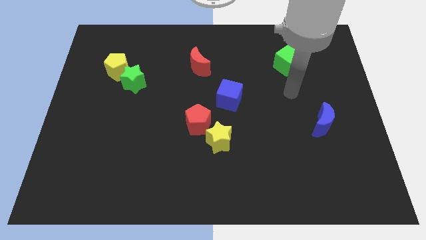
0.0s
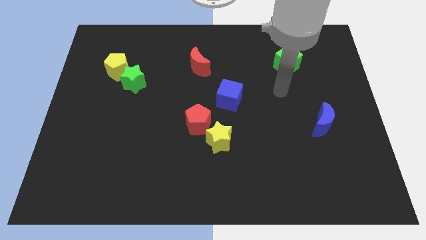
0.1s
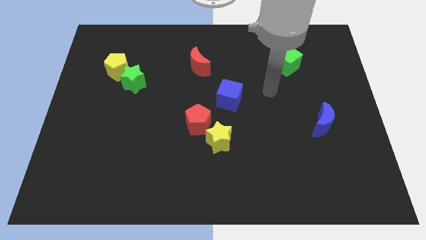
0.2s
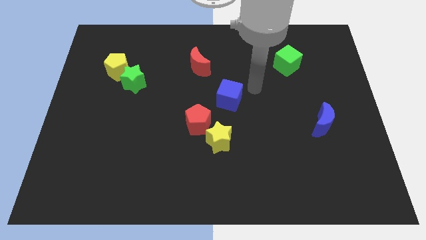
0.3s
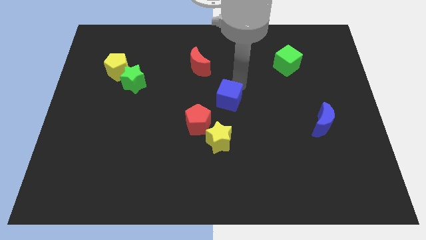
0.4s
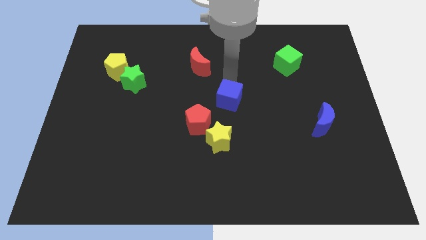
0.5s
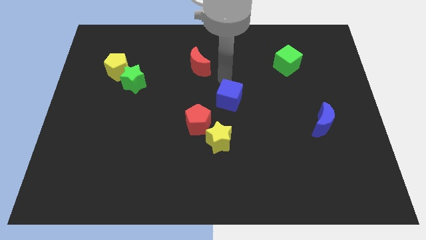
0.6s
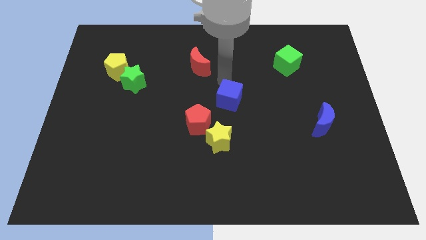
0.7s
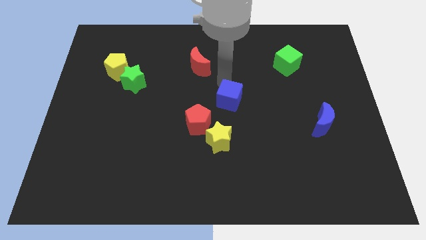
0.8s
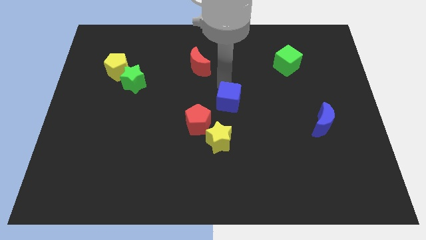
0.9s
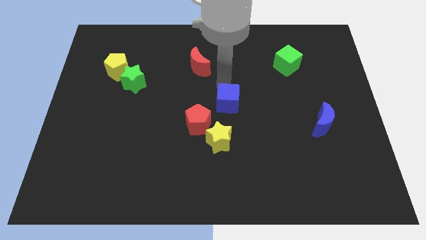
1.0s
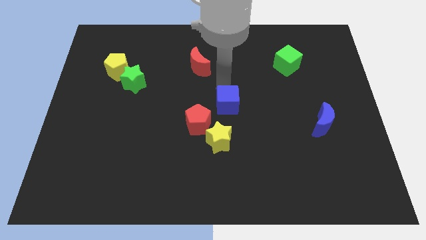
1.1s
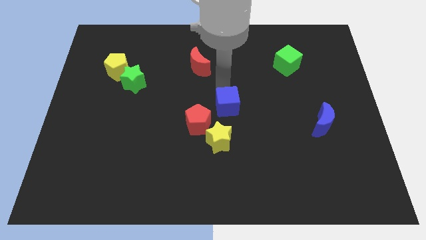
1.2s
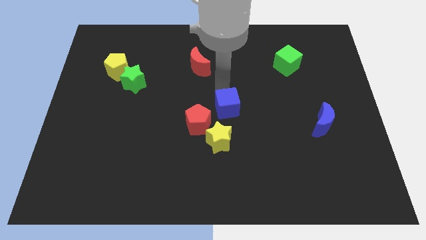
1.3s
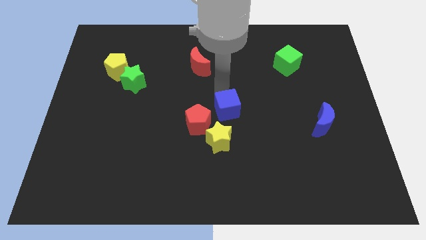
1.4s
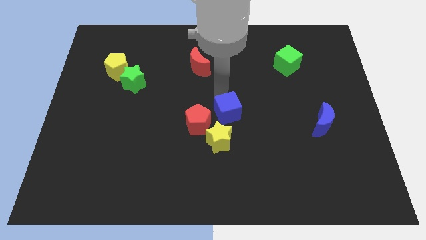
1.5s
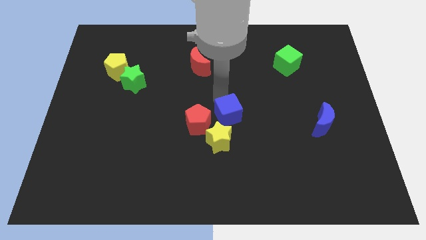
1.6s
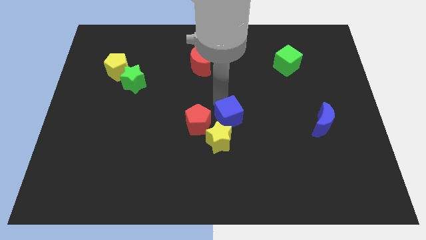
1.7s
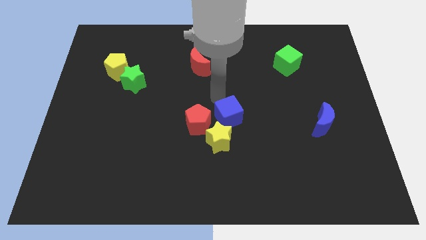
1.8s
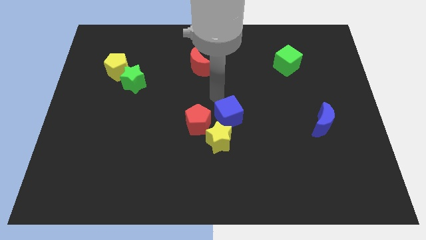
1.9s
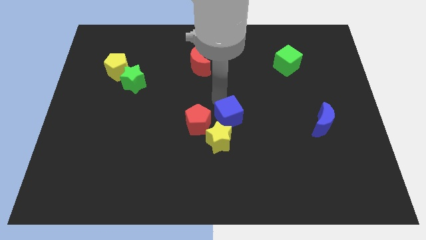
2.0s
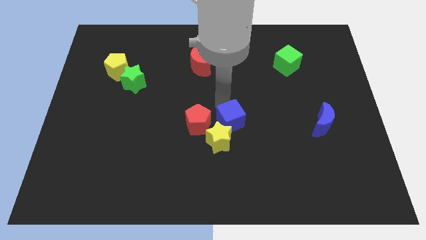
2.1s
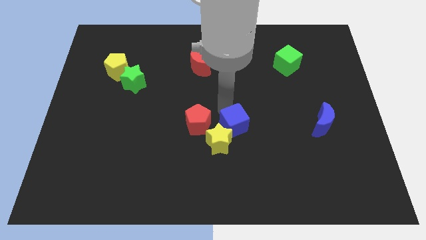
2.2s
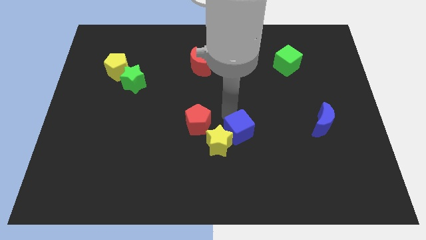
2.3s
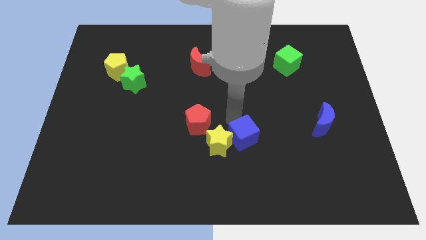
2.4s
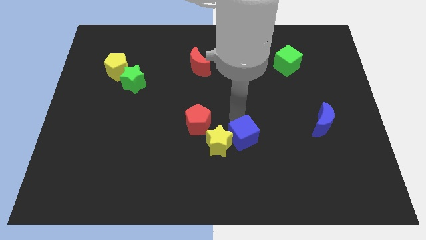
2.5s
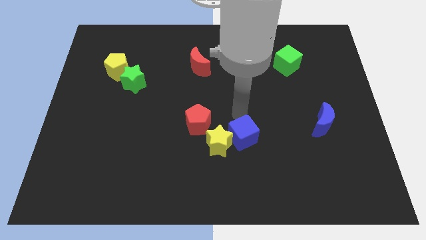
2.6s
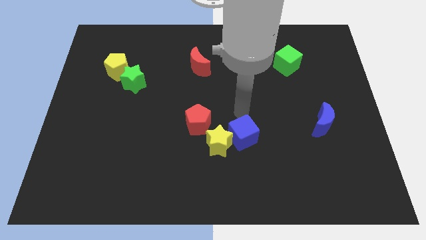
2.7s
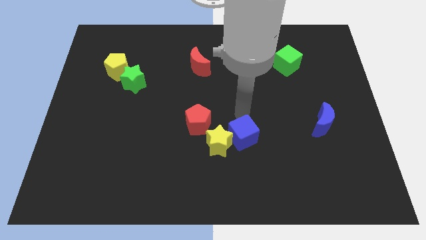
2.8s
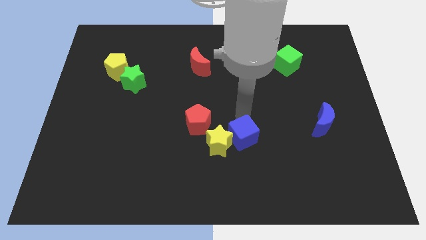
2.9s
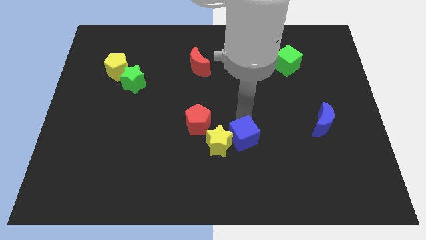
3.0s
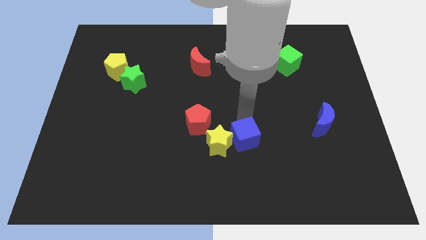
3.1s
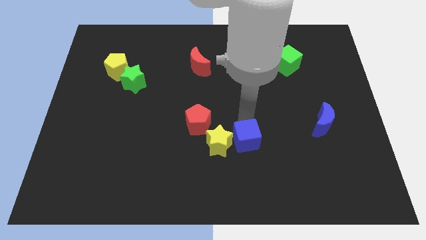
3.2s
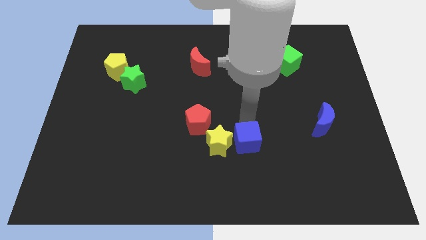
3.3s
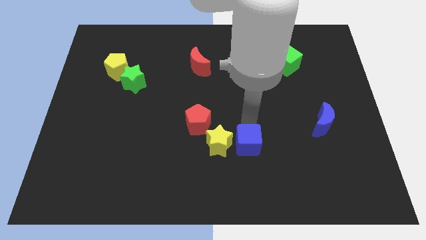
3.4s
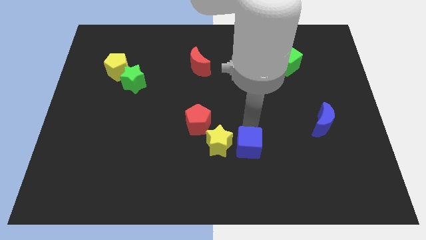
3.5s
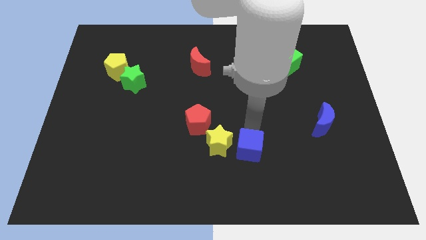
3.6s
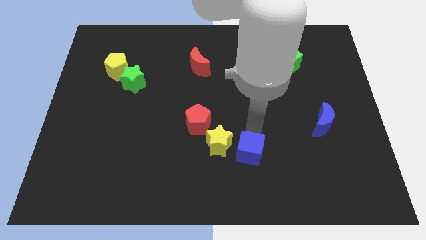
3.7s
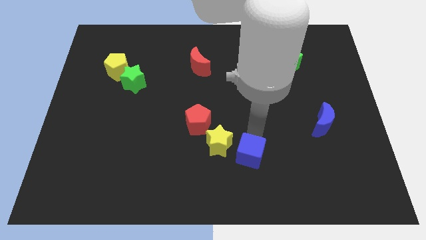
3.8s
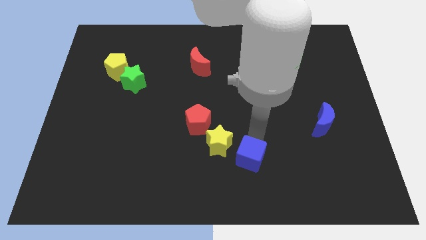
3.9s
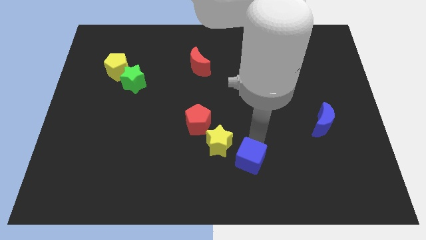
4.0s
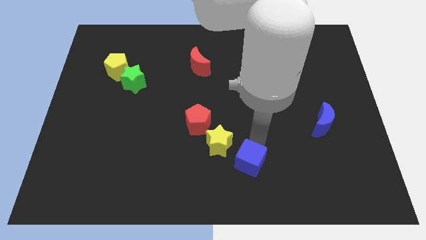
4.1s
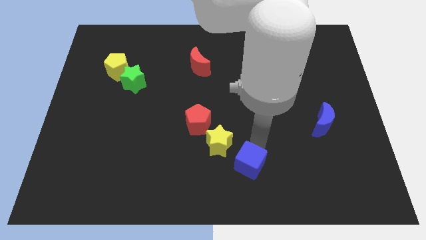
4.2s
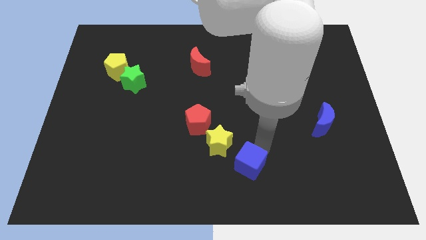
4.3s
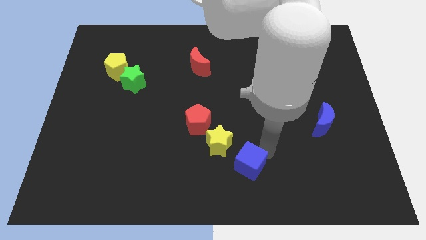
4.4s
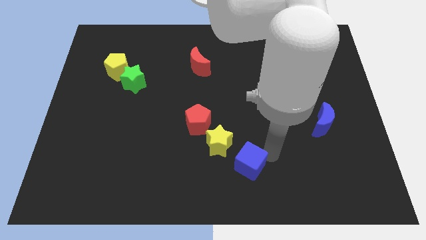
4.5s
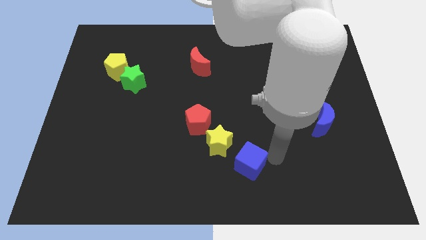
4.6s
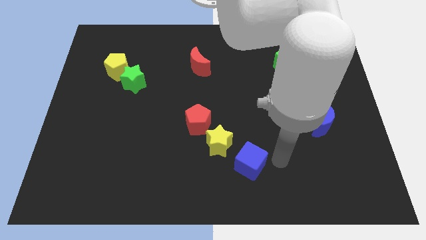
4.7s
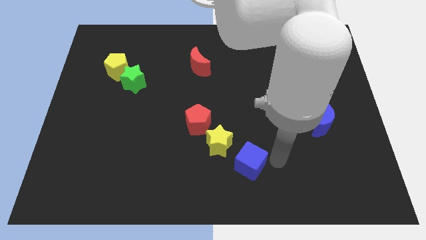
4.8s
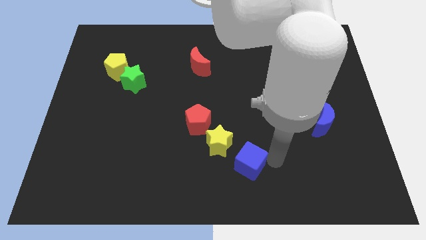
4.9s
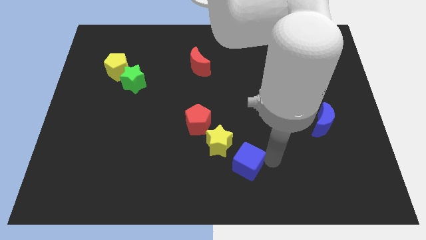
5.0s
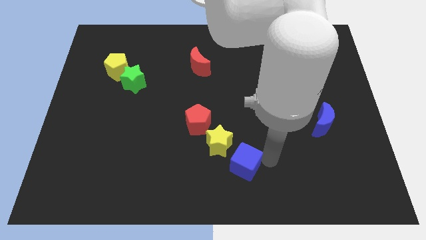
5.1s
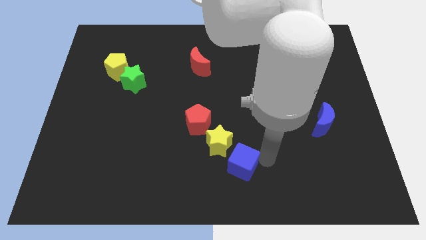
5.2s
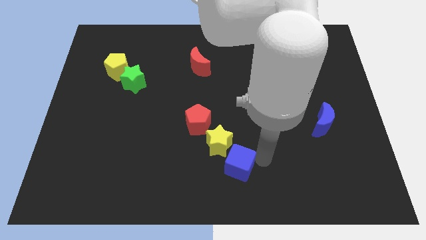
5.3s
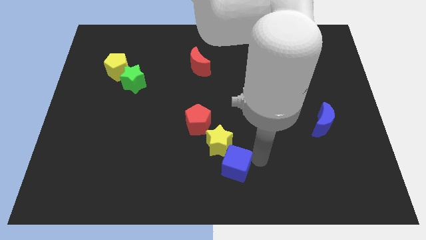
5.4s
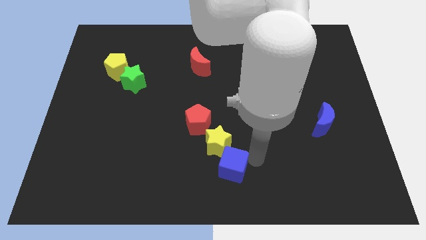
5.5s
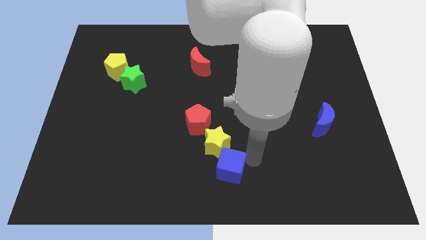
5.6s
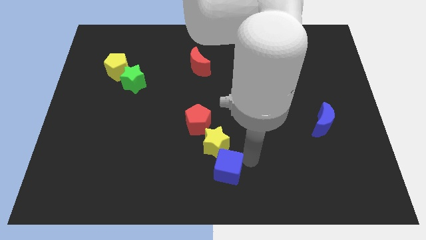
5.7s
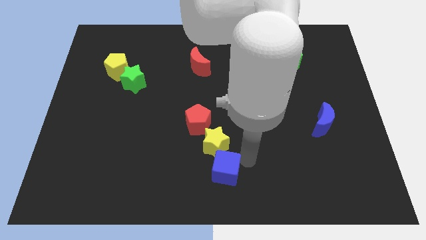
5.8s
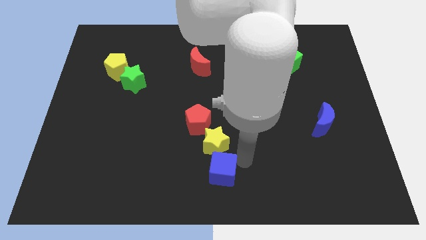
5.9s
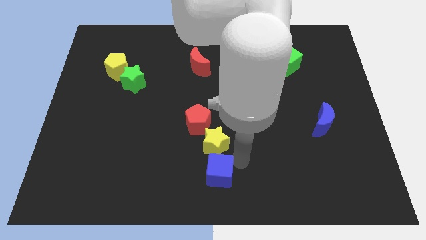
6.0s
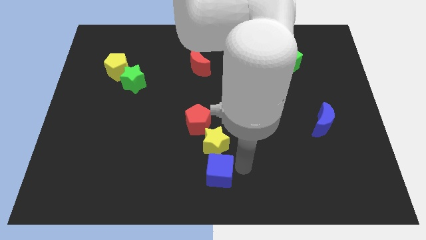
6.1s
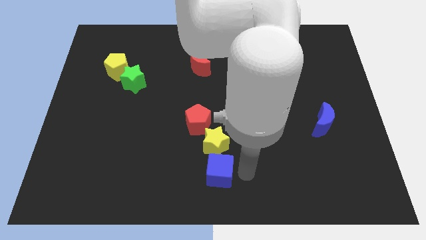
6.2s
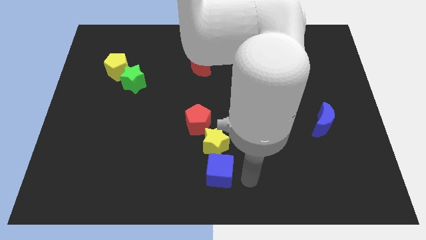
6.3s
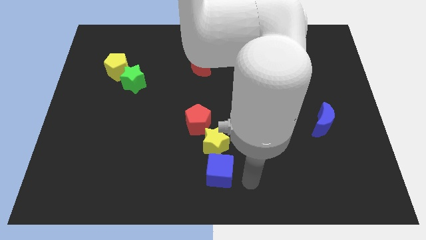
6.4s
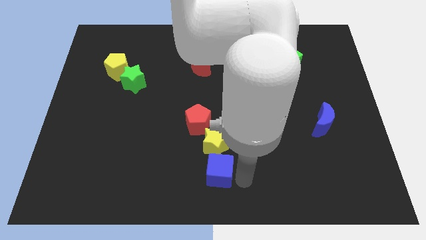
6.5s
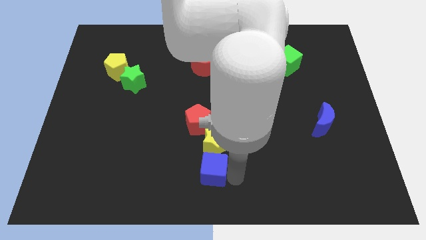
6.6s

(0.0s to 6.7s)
slide the blue cube to the bottom left of the yellow star
